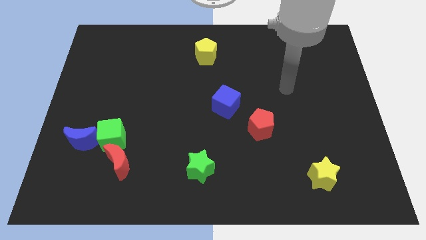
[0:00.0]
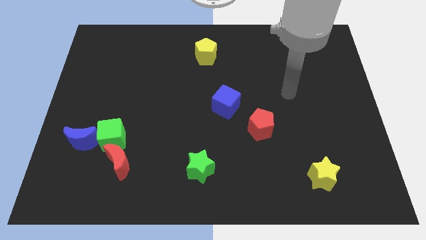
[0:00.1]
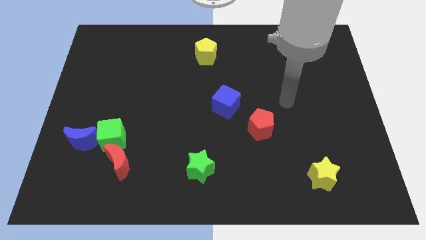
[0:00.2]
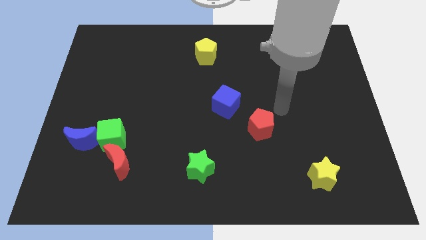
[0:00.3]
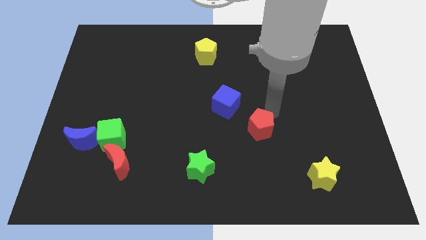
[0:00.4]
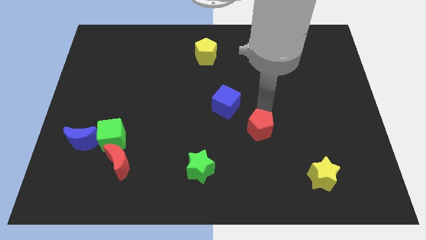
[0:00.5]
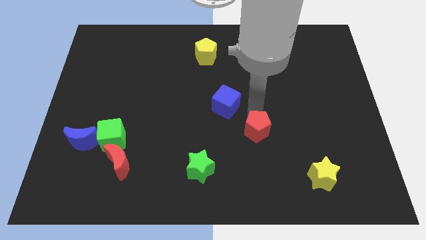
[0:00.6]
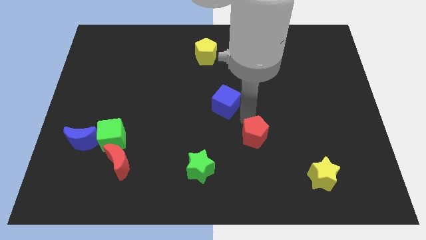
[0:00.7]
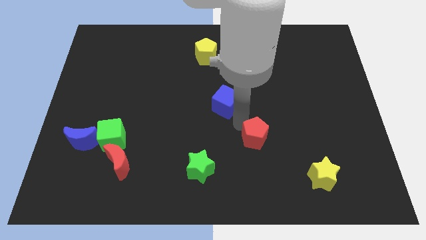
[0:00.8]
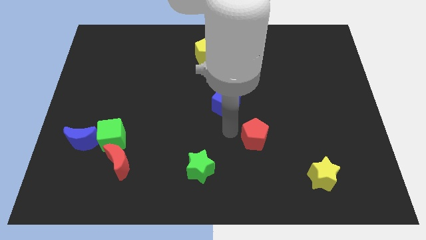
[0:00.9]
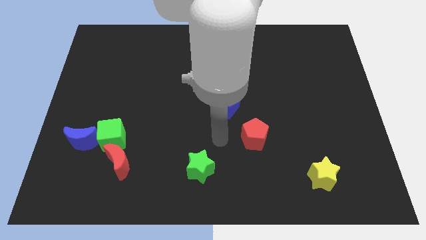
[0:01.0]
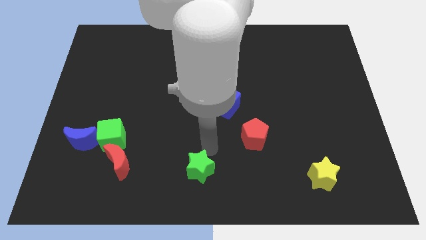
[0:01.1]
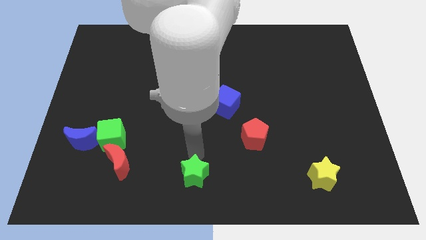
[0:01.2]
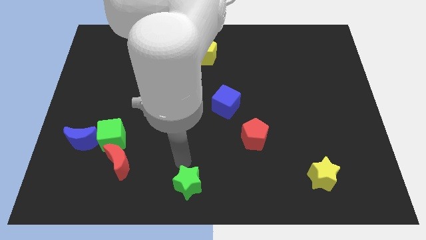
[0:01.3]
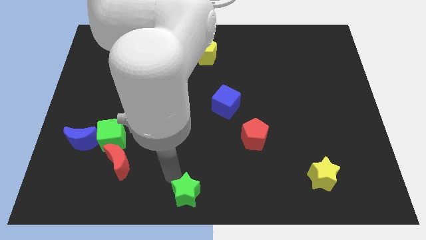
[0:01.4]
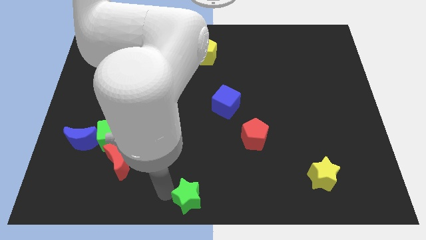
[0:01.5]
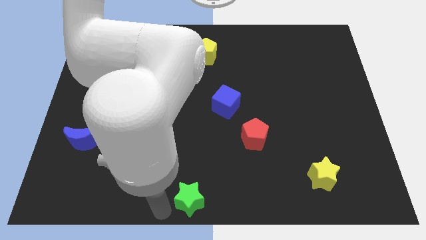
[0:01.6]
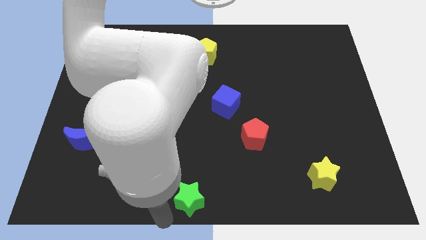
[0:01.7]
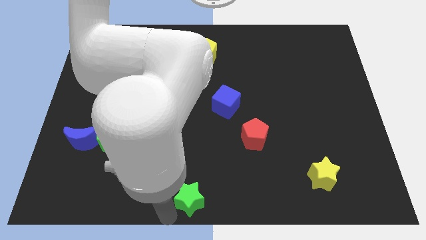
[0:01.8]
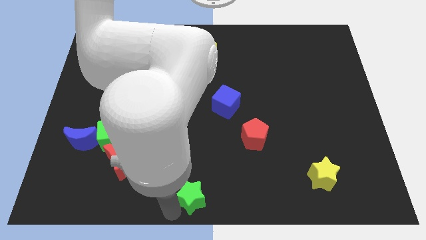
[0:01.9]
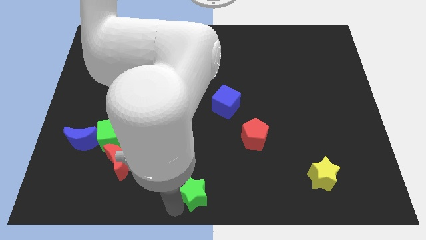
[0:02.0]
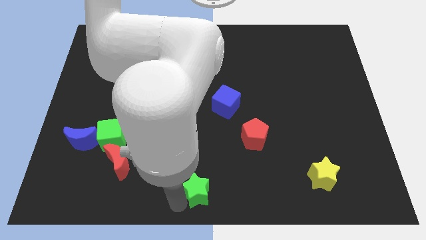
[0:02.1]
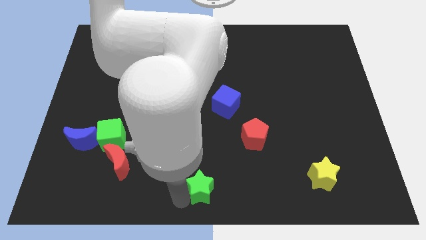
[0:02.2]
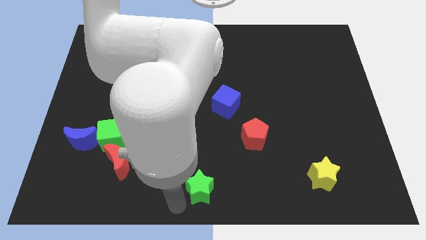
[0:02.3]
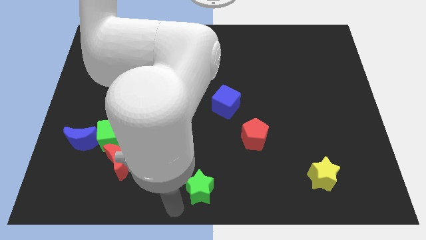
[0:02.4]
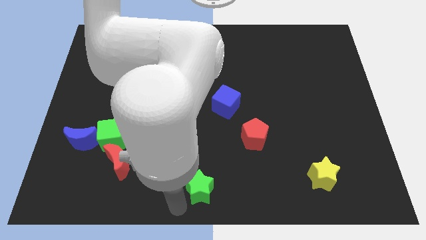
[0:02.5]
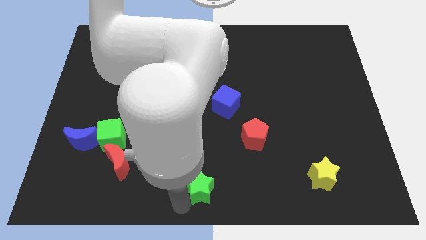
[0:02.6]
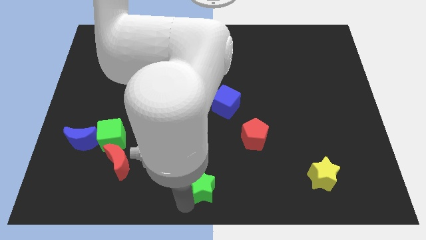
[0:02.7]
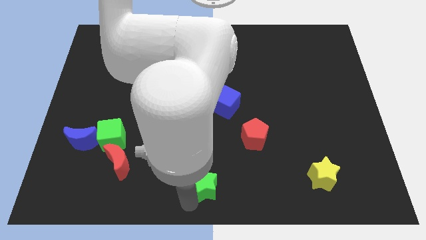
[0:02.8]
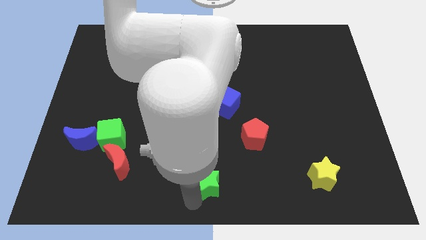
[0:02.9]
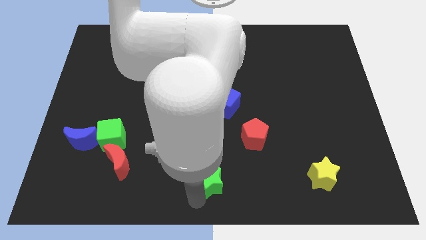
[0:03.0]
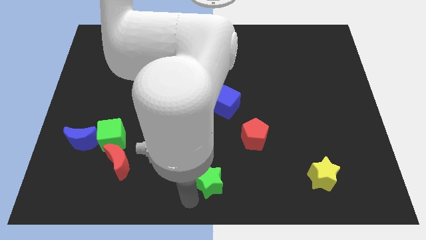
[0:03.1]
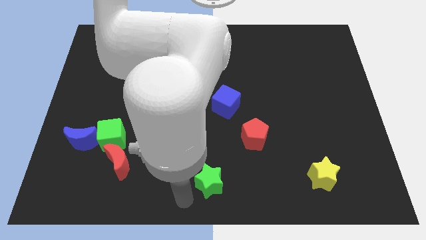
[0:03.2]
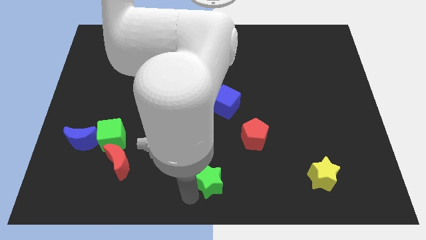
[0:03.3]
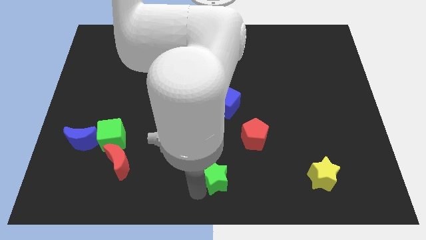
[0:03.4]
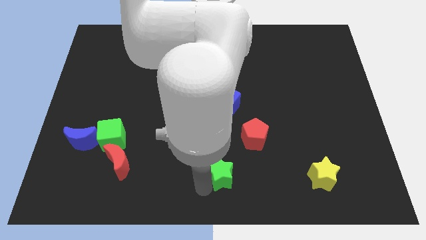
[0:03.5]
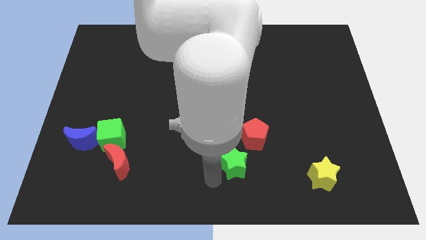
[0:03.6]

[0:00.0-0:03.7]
slightly slide the green star right

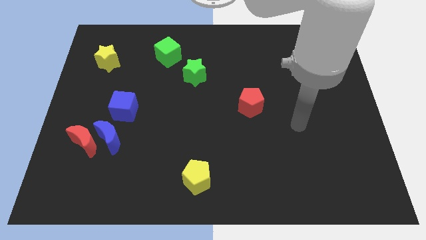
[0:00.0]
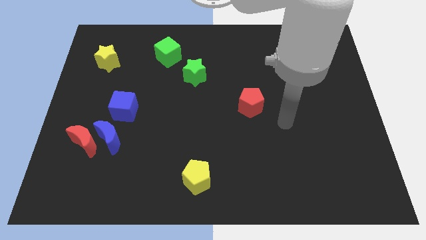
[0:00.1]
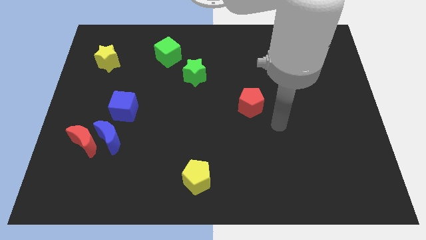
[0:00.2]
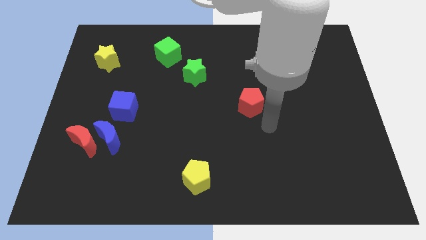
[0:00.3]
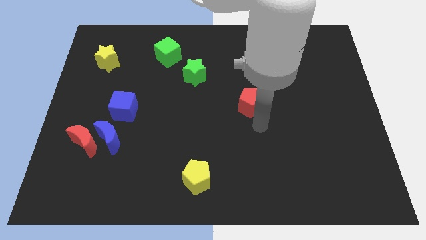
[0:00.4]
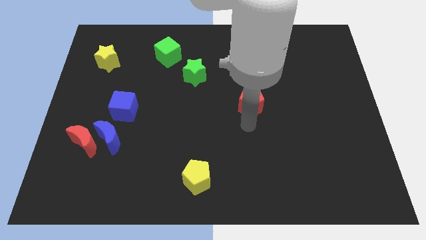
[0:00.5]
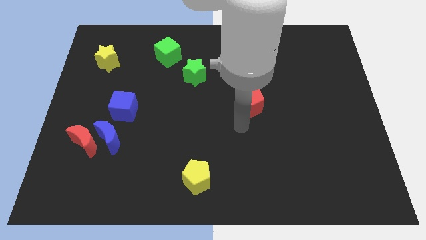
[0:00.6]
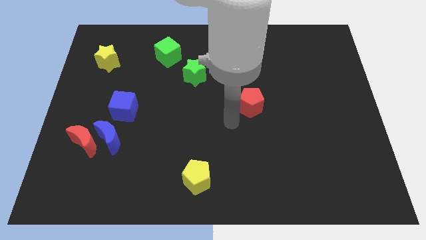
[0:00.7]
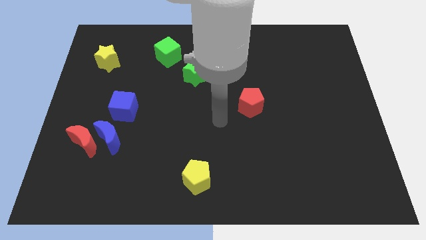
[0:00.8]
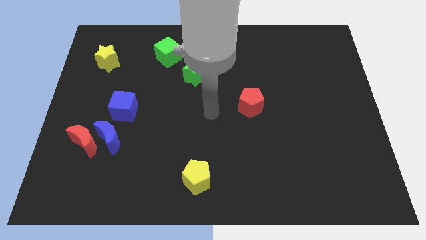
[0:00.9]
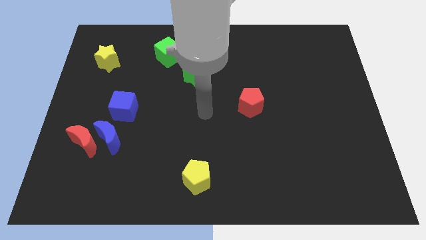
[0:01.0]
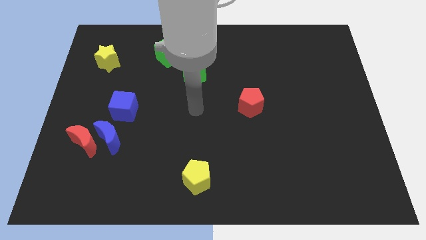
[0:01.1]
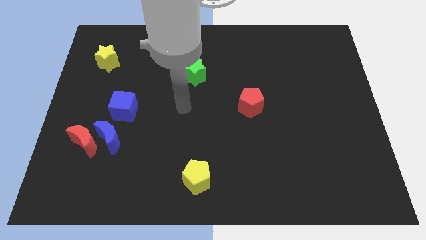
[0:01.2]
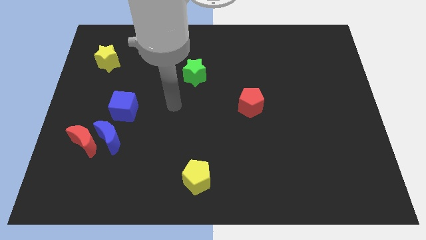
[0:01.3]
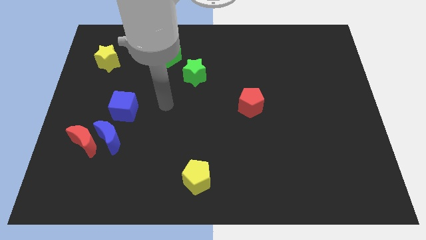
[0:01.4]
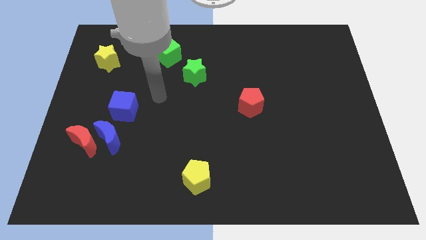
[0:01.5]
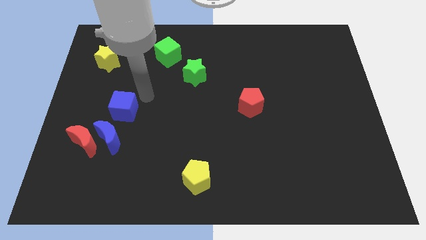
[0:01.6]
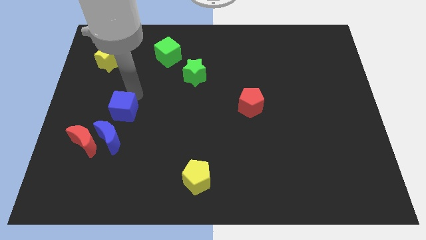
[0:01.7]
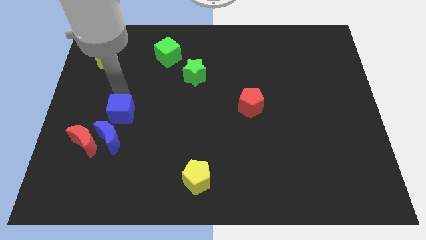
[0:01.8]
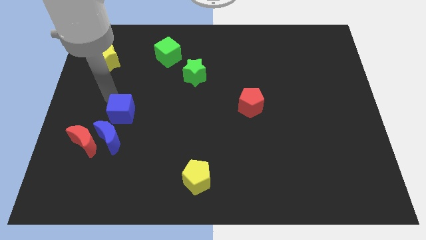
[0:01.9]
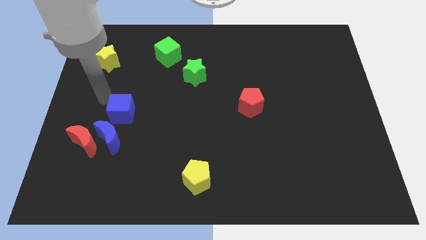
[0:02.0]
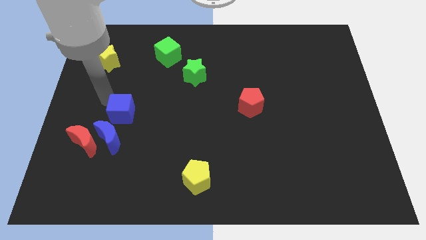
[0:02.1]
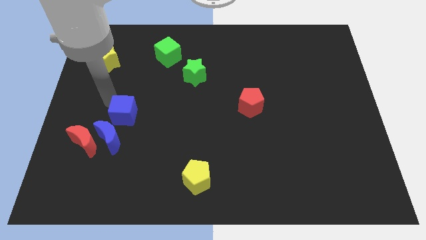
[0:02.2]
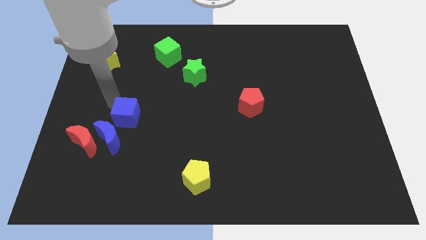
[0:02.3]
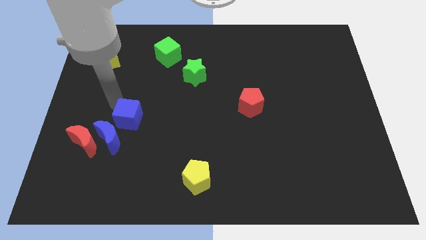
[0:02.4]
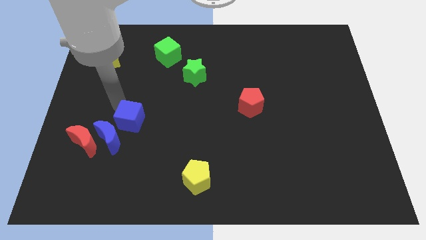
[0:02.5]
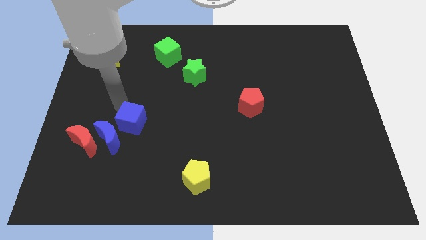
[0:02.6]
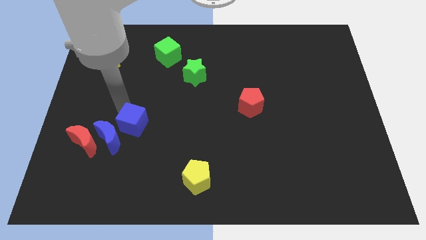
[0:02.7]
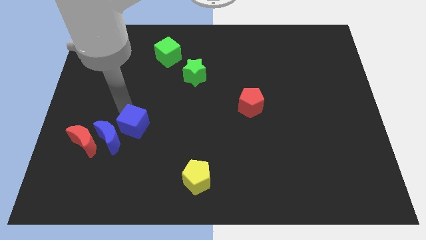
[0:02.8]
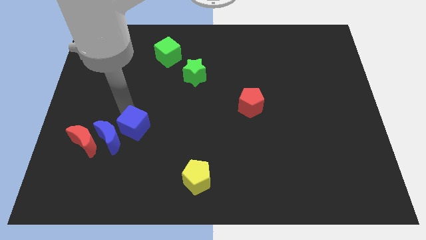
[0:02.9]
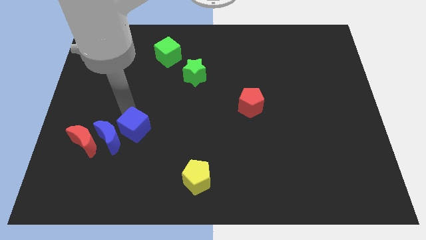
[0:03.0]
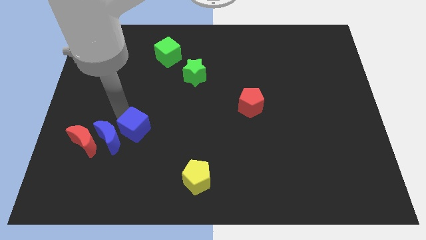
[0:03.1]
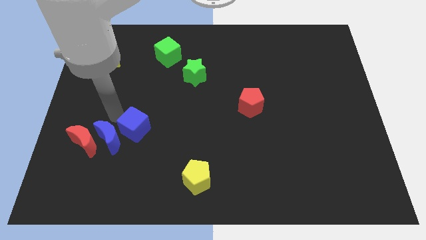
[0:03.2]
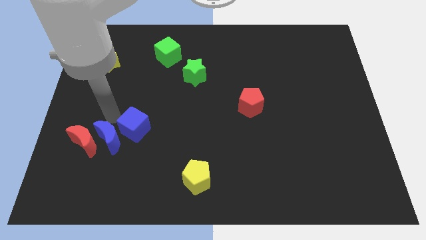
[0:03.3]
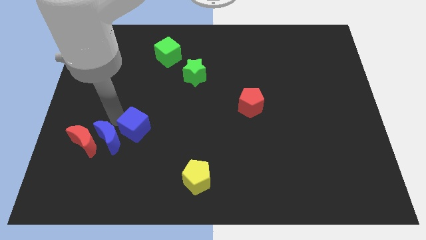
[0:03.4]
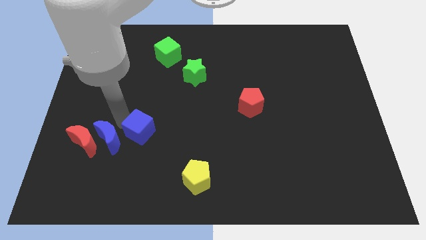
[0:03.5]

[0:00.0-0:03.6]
slightly move the blue cube downwards and to the right diagonally

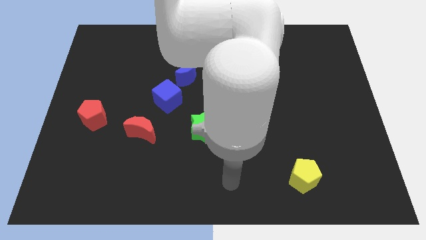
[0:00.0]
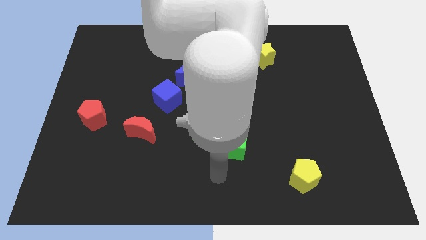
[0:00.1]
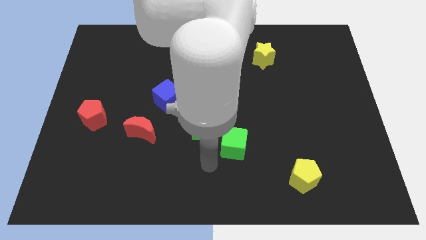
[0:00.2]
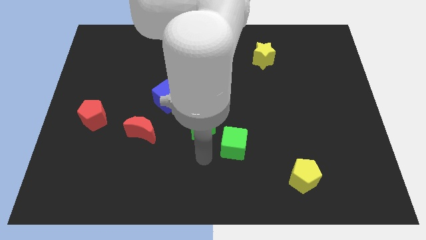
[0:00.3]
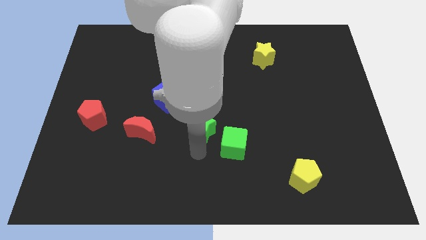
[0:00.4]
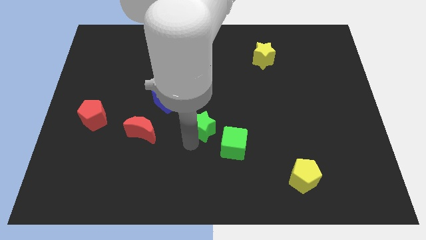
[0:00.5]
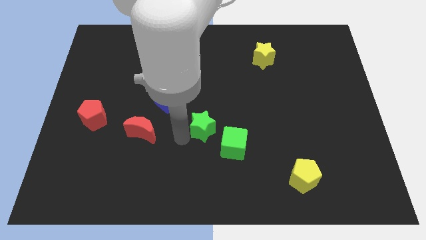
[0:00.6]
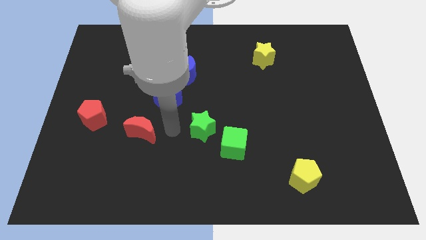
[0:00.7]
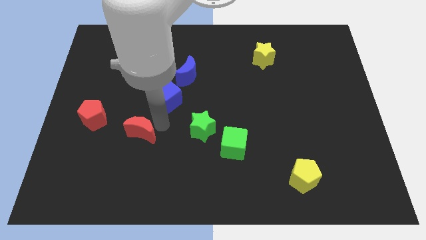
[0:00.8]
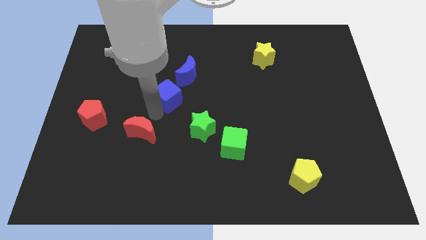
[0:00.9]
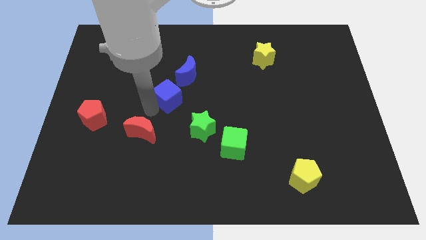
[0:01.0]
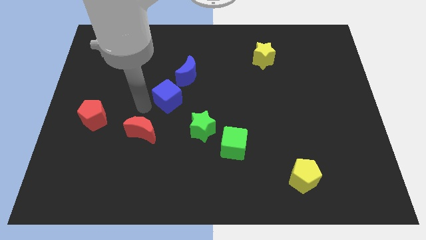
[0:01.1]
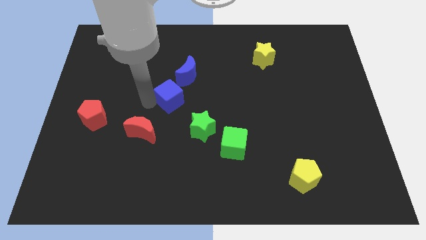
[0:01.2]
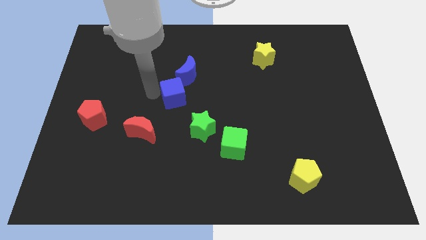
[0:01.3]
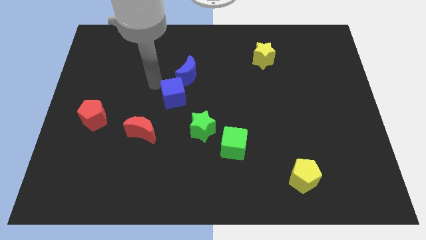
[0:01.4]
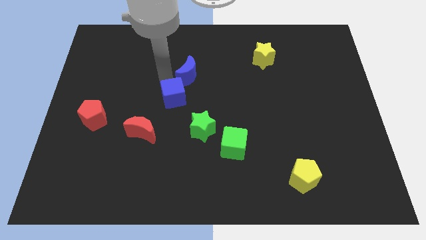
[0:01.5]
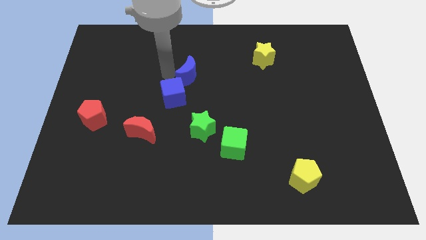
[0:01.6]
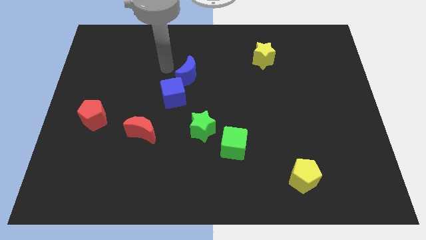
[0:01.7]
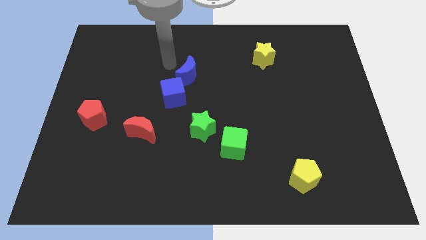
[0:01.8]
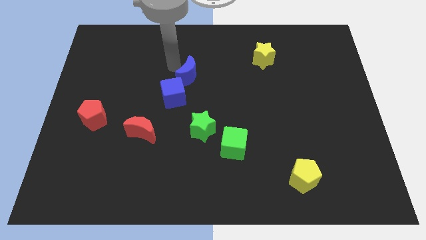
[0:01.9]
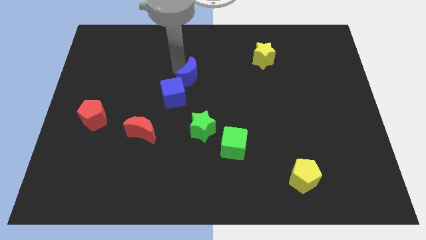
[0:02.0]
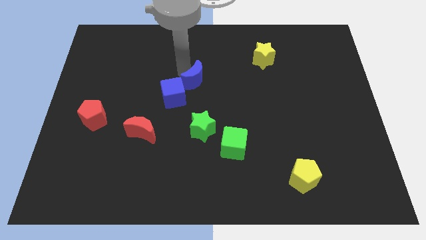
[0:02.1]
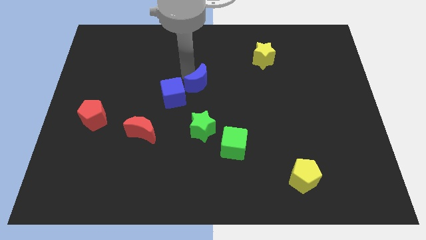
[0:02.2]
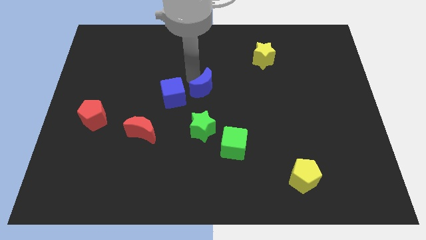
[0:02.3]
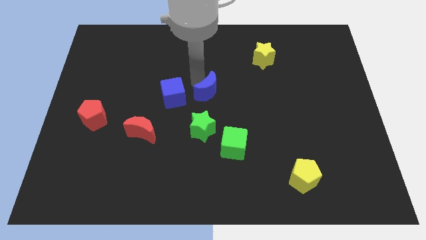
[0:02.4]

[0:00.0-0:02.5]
slightly move the blue moon down and to the right diagonally
